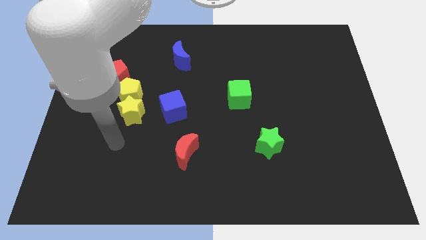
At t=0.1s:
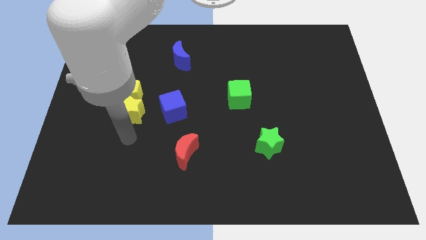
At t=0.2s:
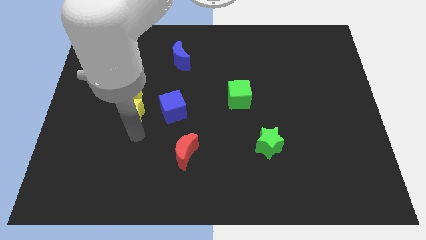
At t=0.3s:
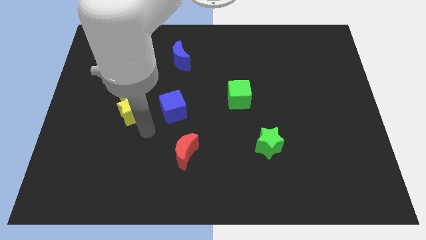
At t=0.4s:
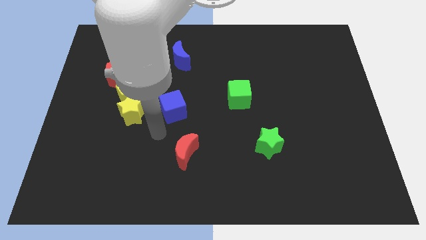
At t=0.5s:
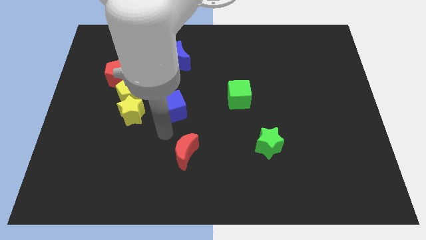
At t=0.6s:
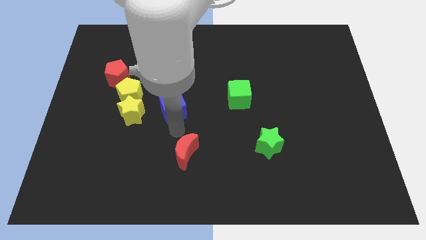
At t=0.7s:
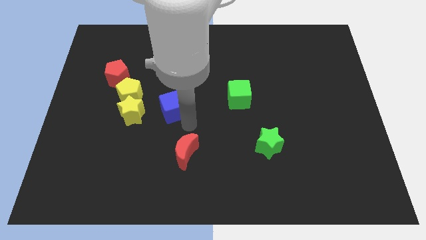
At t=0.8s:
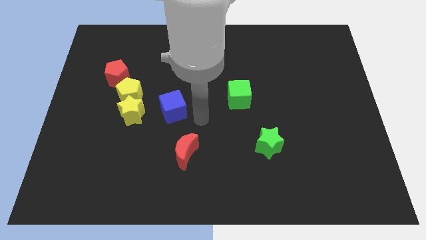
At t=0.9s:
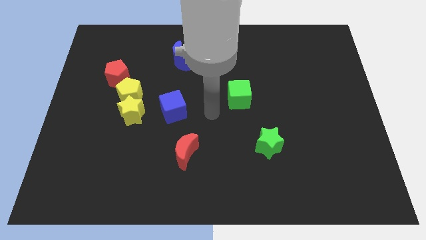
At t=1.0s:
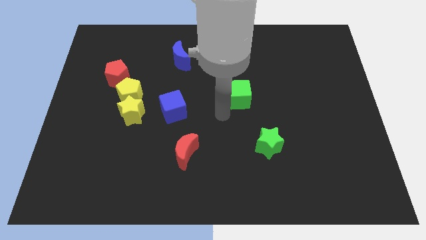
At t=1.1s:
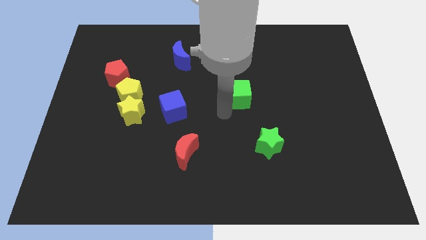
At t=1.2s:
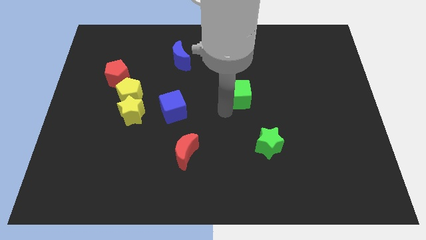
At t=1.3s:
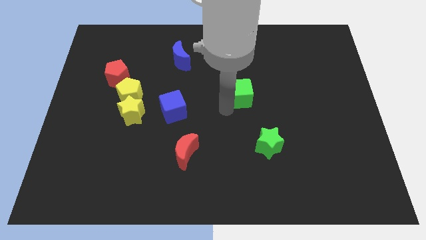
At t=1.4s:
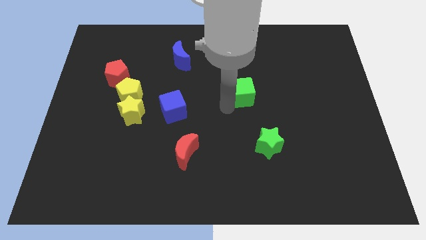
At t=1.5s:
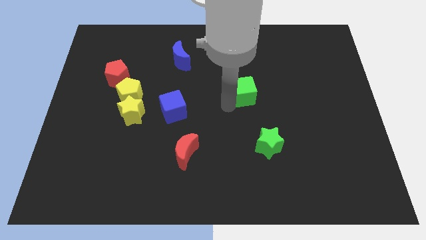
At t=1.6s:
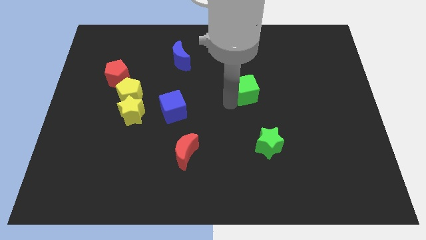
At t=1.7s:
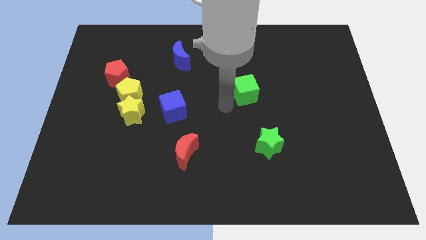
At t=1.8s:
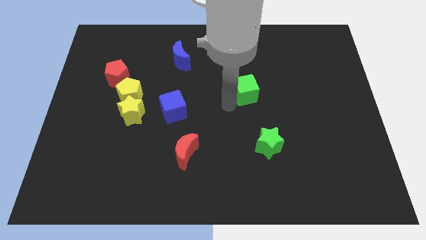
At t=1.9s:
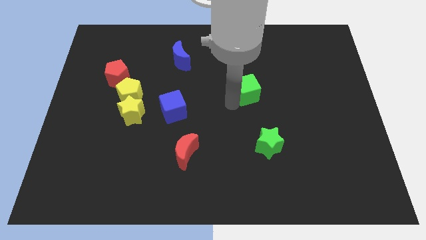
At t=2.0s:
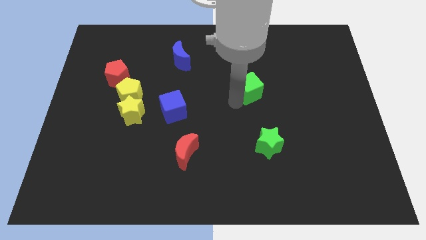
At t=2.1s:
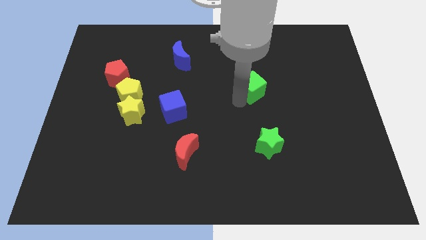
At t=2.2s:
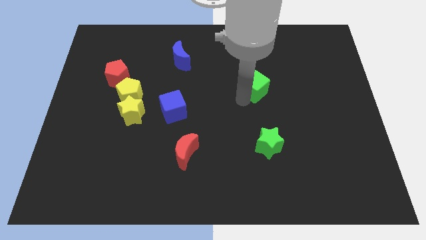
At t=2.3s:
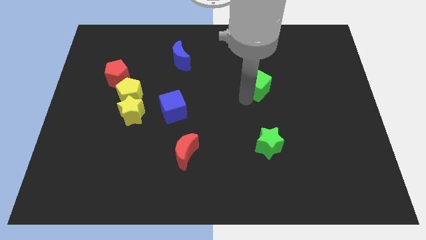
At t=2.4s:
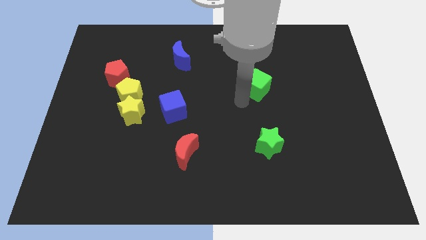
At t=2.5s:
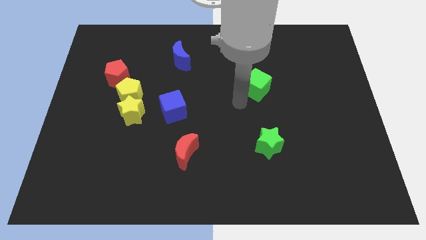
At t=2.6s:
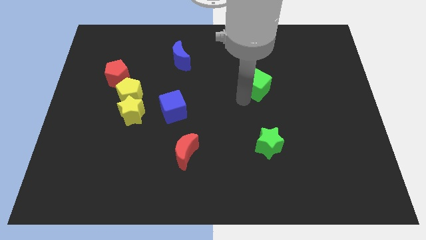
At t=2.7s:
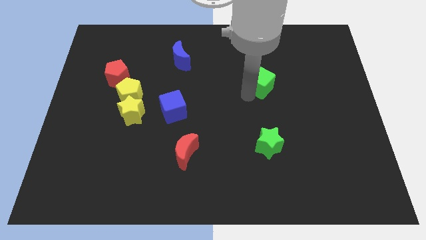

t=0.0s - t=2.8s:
push the green cube diagonally upwards and right a little

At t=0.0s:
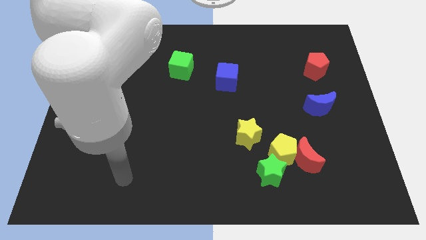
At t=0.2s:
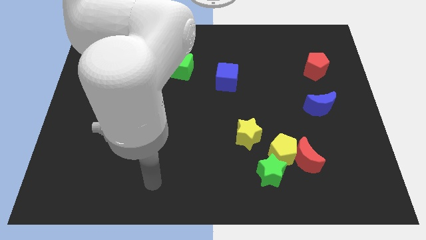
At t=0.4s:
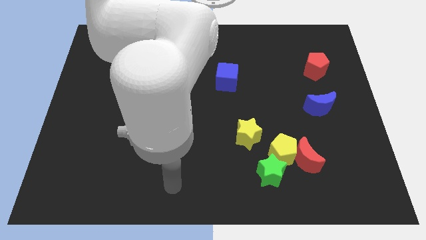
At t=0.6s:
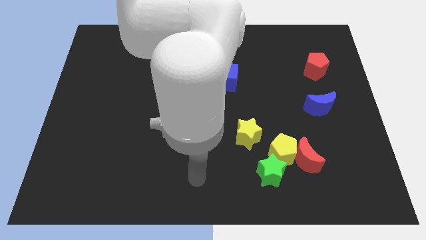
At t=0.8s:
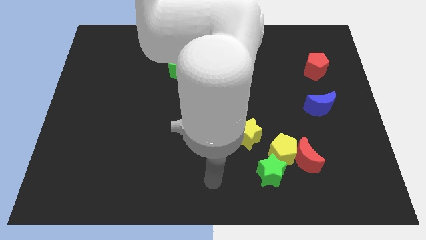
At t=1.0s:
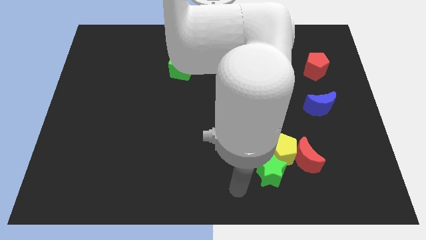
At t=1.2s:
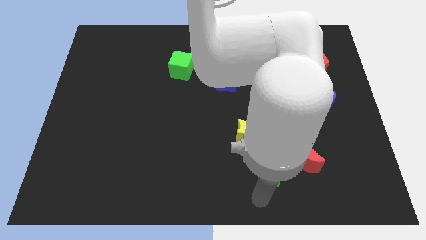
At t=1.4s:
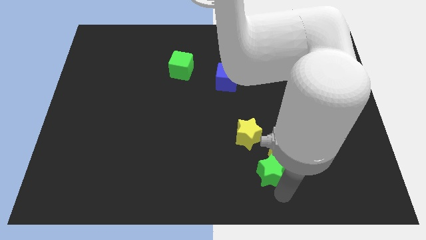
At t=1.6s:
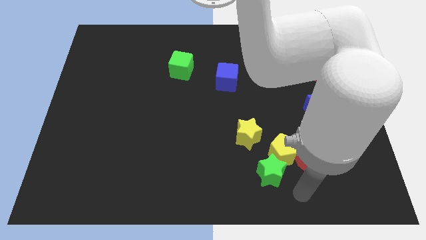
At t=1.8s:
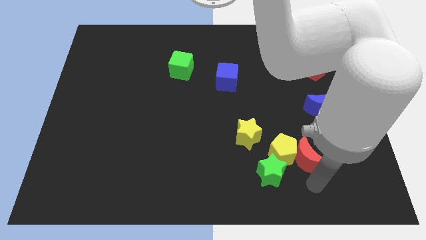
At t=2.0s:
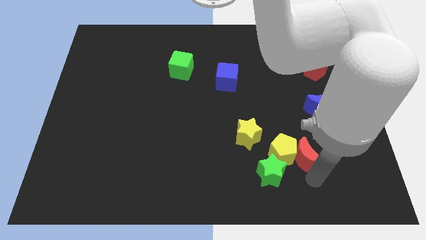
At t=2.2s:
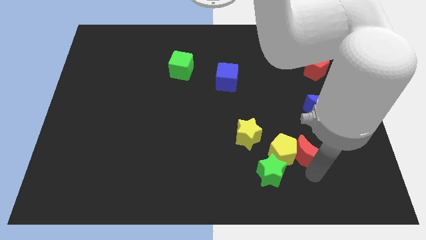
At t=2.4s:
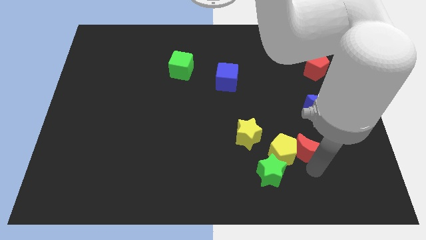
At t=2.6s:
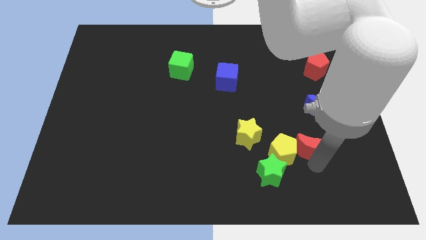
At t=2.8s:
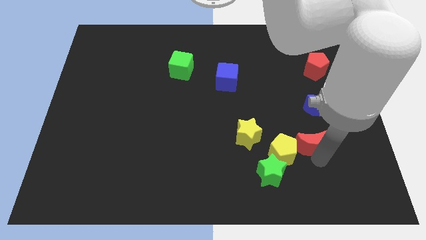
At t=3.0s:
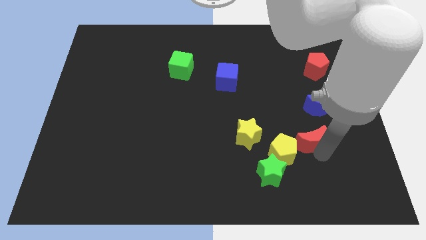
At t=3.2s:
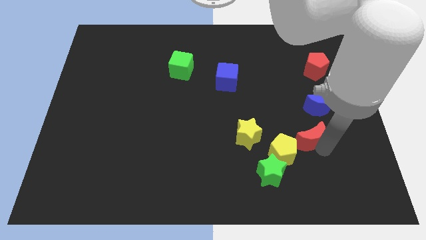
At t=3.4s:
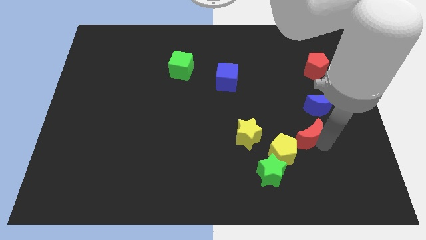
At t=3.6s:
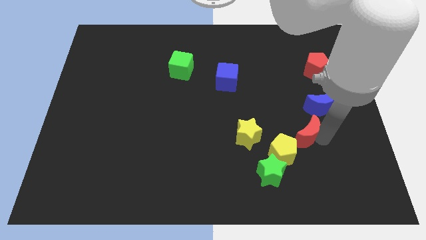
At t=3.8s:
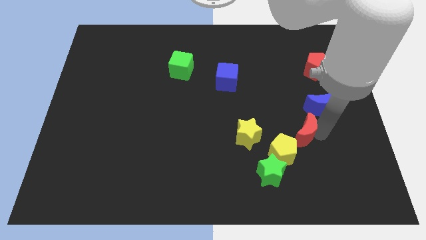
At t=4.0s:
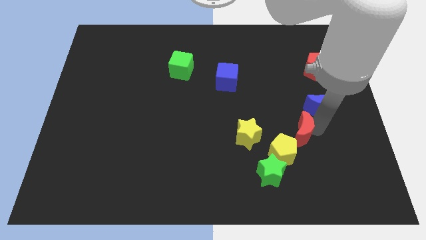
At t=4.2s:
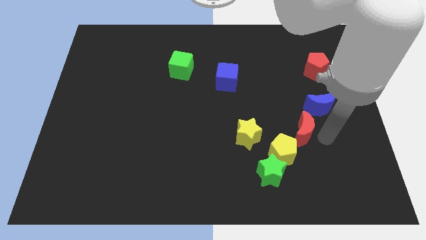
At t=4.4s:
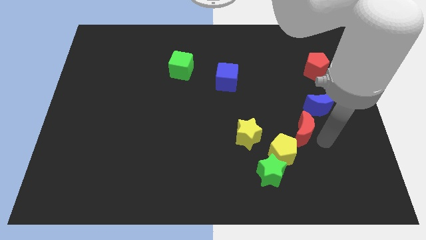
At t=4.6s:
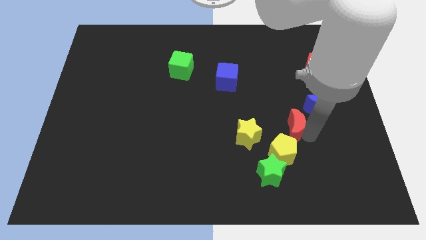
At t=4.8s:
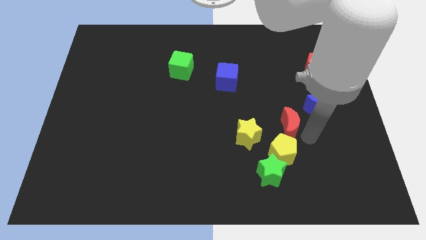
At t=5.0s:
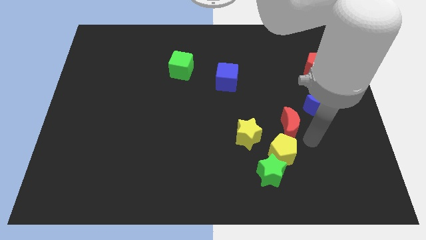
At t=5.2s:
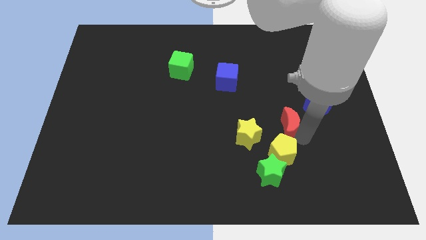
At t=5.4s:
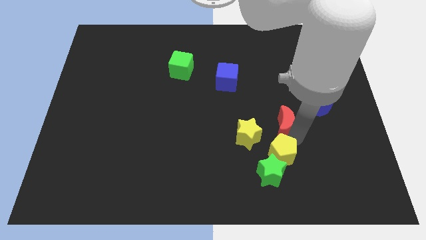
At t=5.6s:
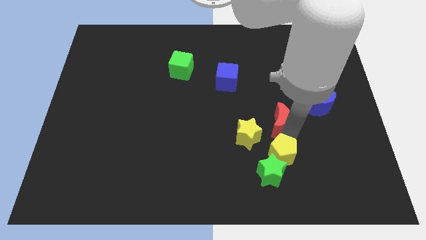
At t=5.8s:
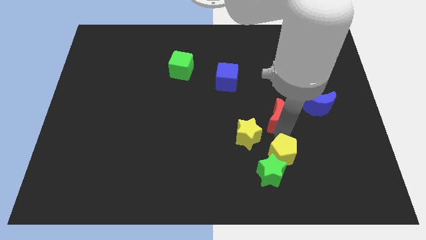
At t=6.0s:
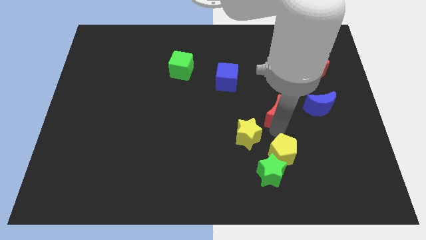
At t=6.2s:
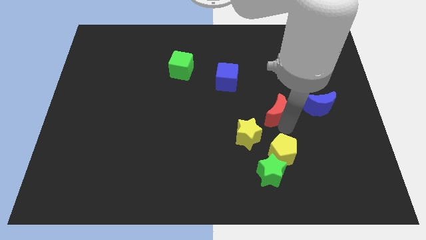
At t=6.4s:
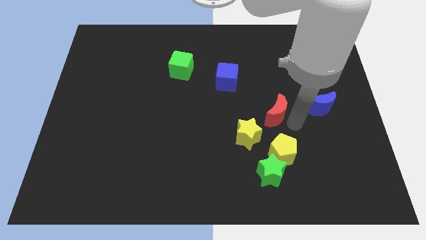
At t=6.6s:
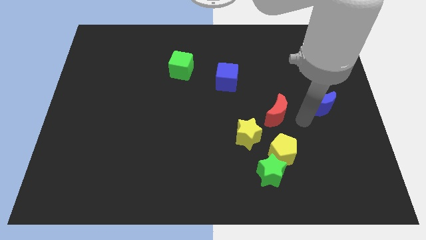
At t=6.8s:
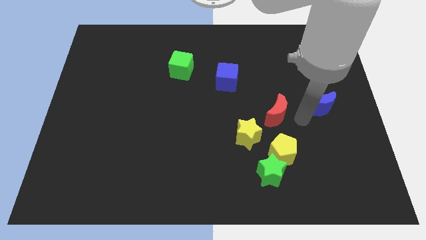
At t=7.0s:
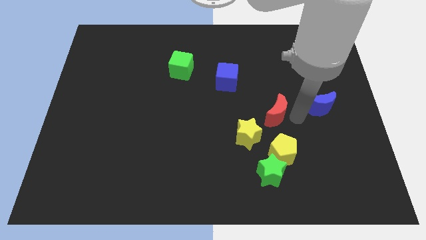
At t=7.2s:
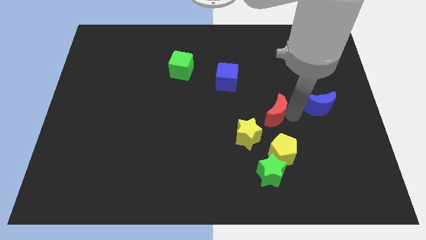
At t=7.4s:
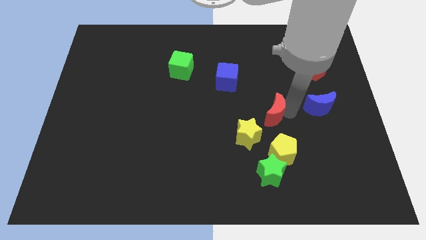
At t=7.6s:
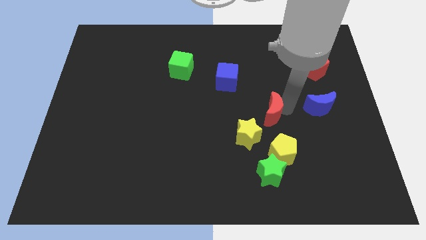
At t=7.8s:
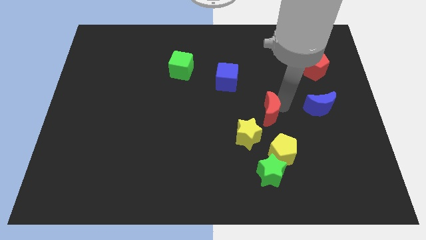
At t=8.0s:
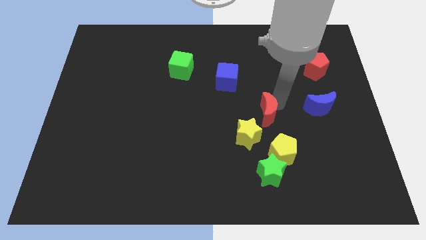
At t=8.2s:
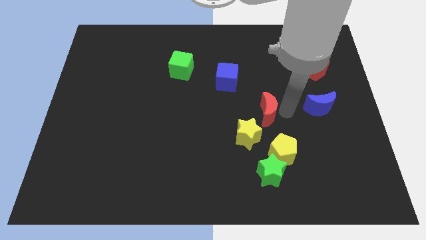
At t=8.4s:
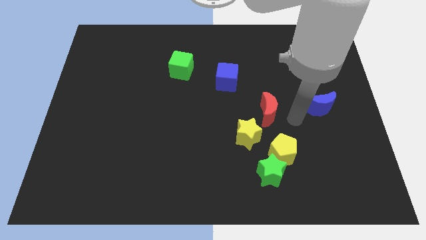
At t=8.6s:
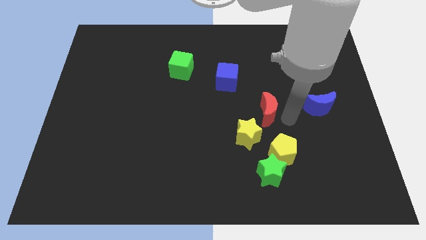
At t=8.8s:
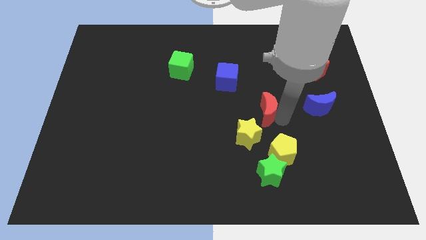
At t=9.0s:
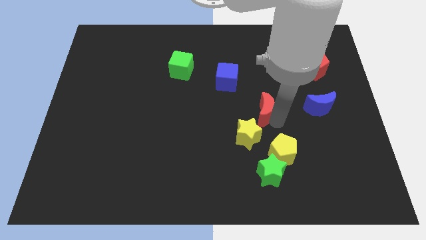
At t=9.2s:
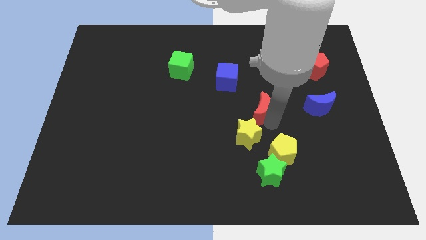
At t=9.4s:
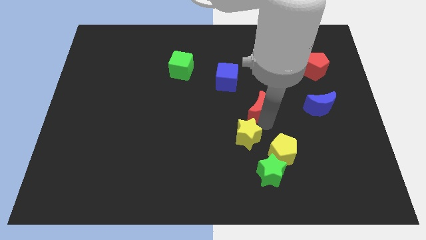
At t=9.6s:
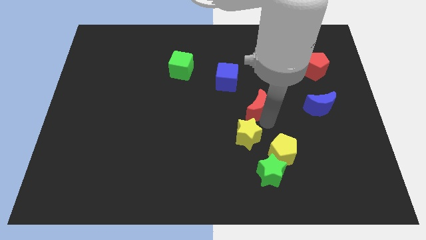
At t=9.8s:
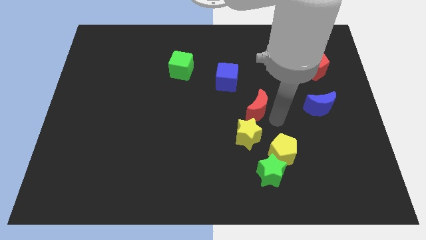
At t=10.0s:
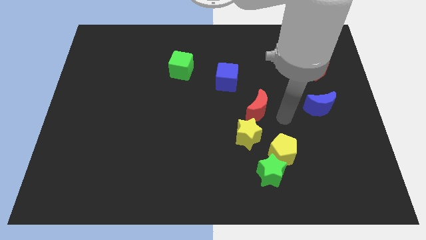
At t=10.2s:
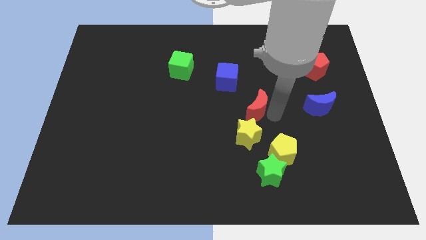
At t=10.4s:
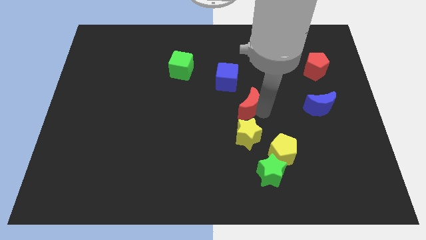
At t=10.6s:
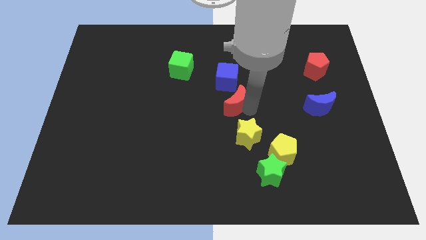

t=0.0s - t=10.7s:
move the red moon up and to the left
